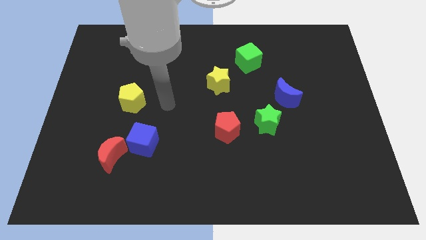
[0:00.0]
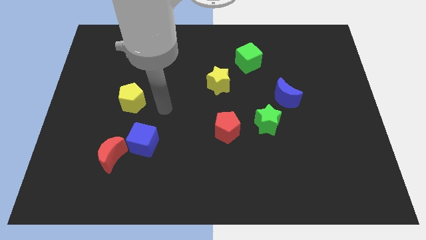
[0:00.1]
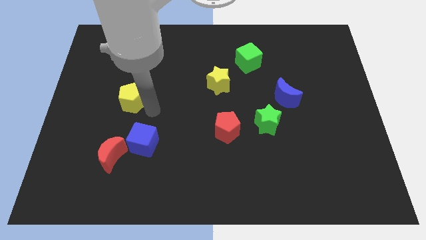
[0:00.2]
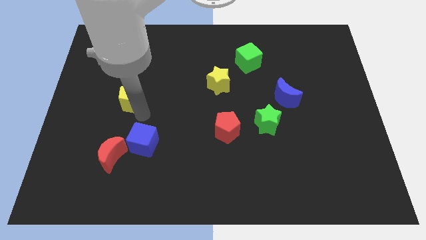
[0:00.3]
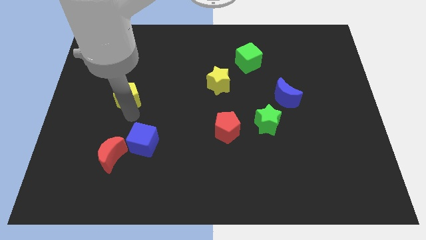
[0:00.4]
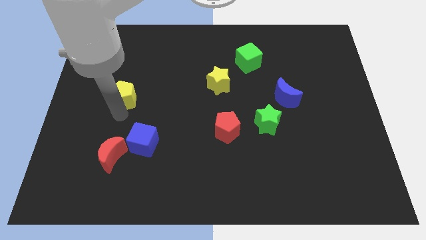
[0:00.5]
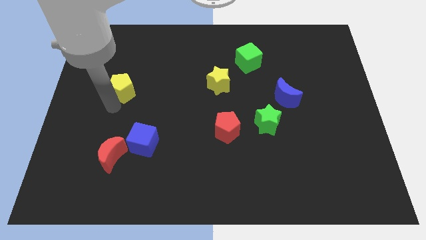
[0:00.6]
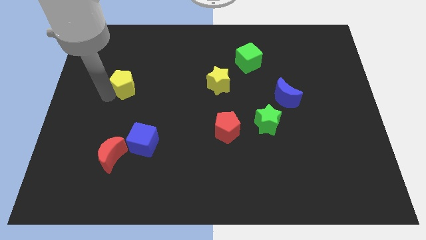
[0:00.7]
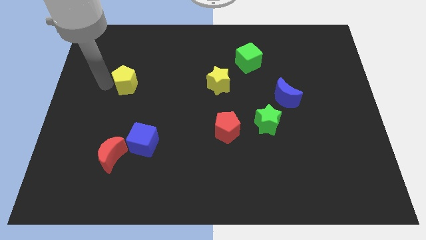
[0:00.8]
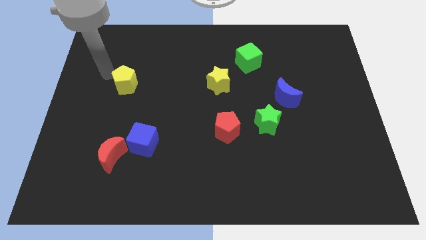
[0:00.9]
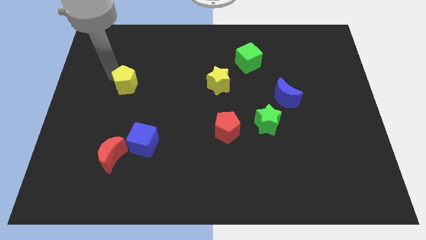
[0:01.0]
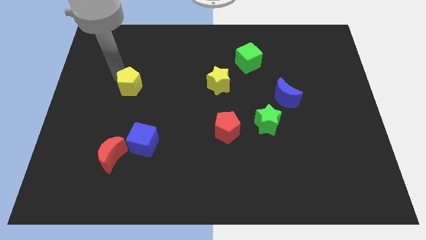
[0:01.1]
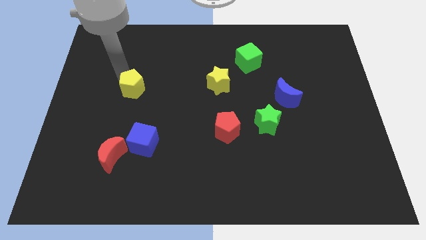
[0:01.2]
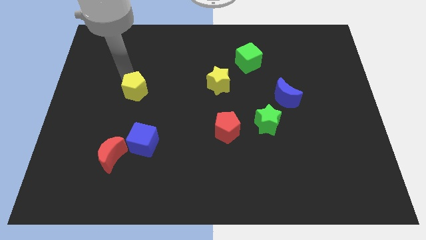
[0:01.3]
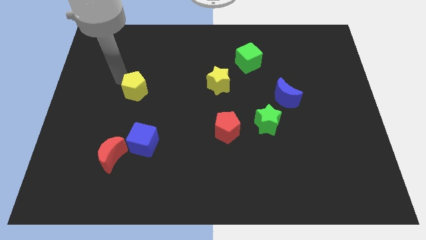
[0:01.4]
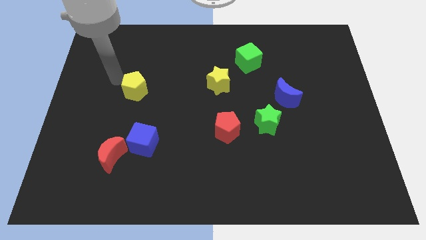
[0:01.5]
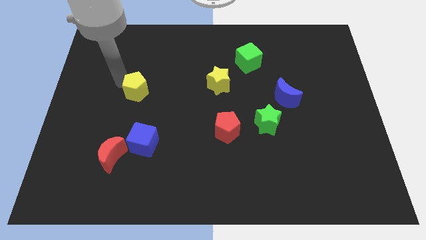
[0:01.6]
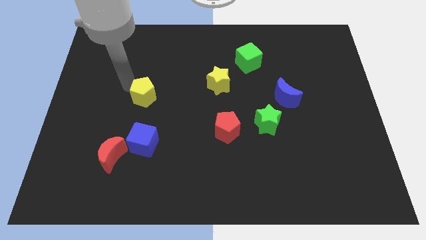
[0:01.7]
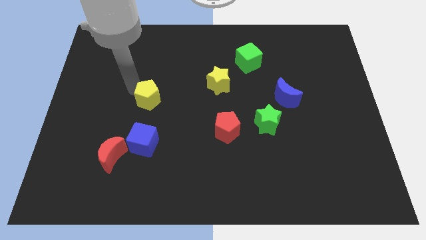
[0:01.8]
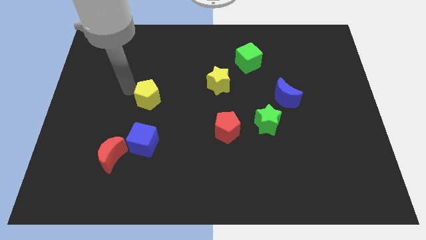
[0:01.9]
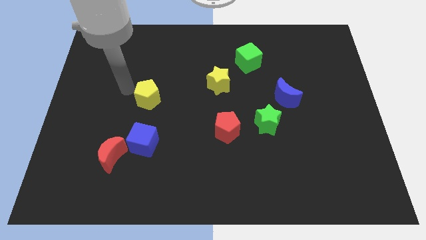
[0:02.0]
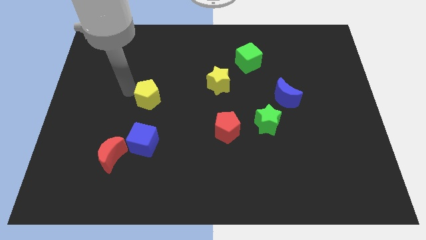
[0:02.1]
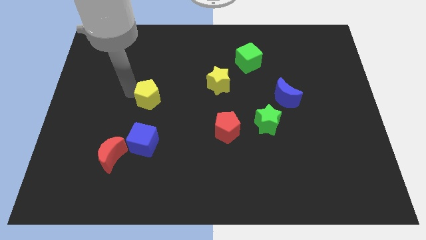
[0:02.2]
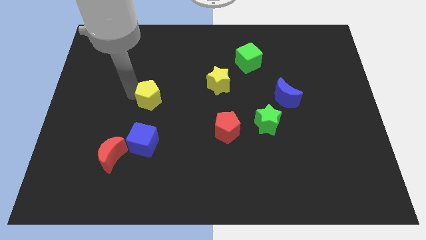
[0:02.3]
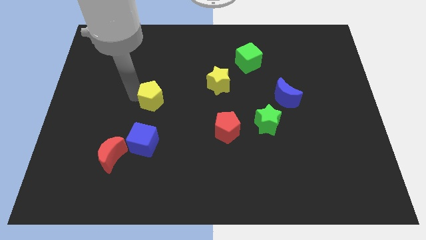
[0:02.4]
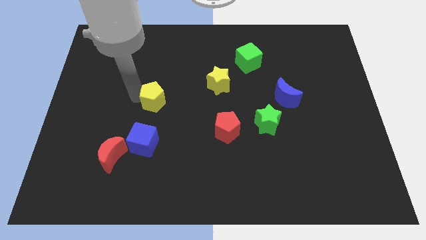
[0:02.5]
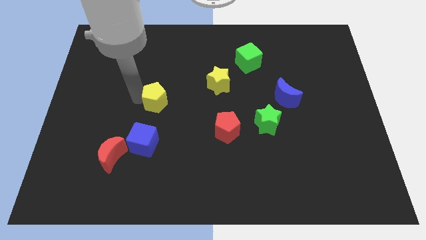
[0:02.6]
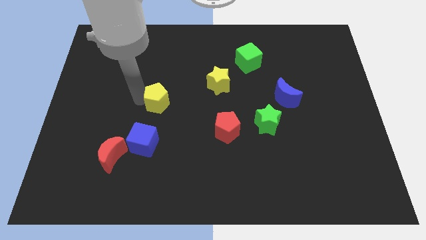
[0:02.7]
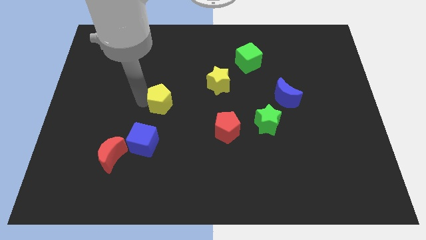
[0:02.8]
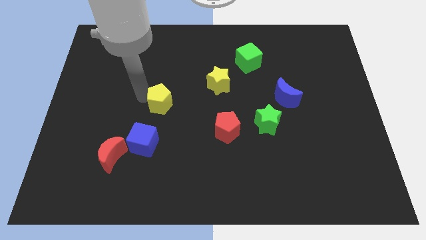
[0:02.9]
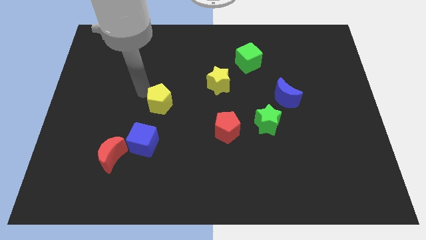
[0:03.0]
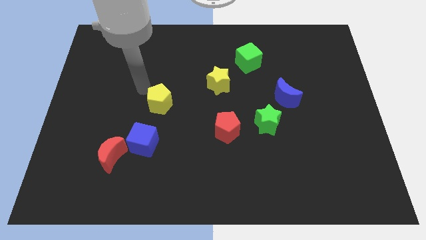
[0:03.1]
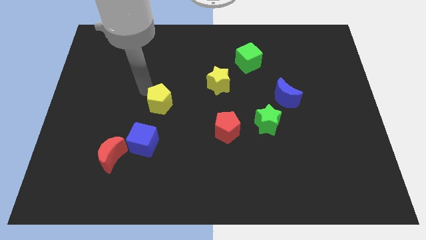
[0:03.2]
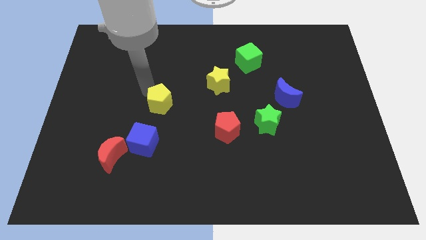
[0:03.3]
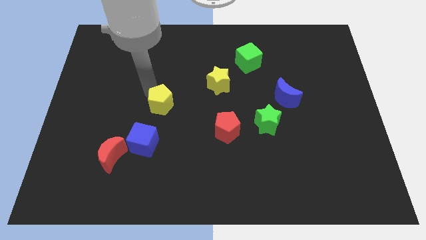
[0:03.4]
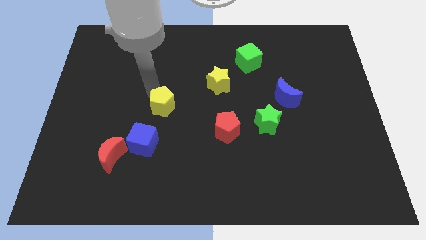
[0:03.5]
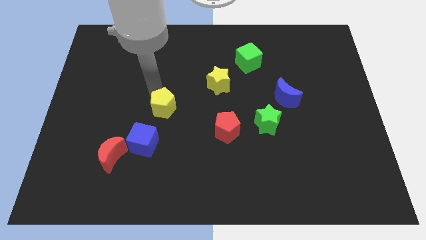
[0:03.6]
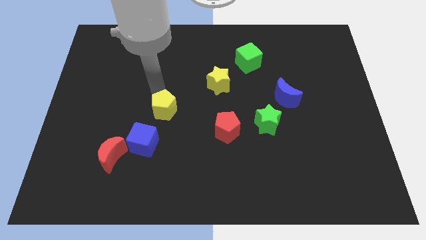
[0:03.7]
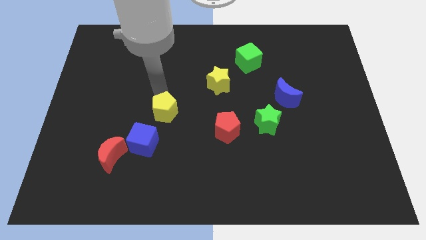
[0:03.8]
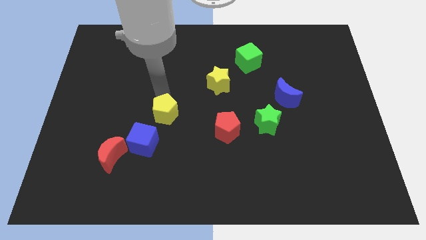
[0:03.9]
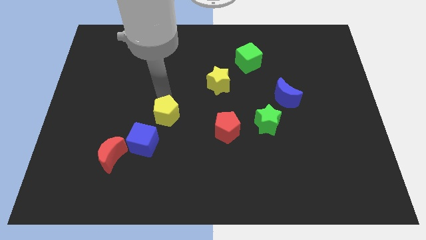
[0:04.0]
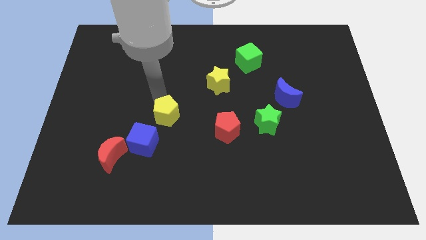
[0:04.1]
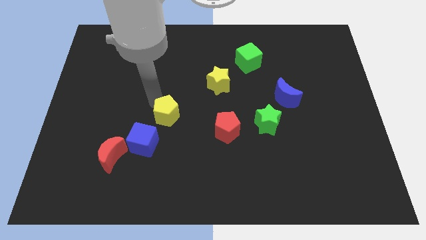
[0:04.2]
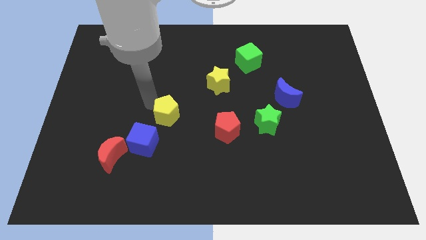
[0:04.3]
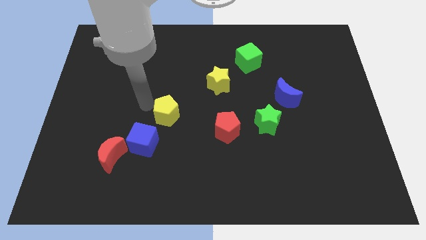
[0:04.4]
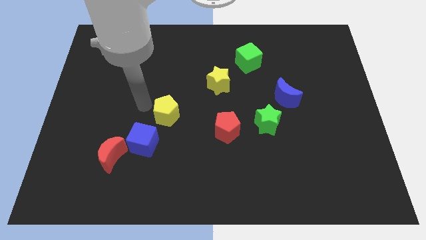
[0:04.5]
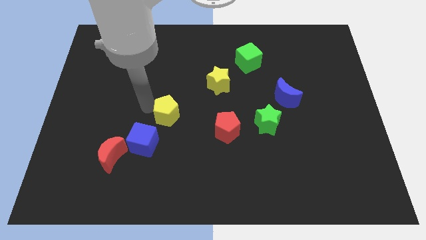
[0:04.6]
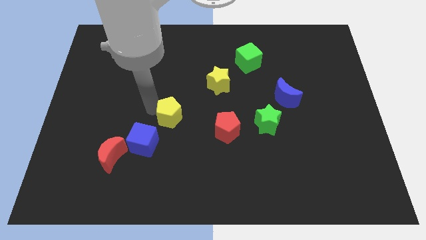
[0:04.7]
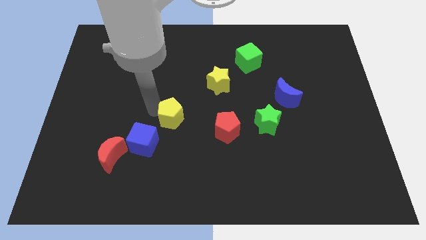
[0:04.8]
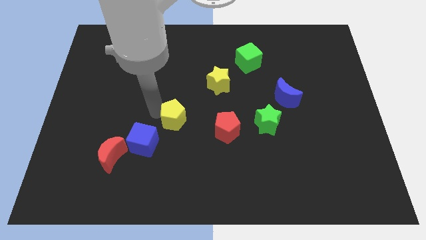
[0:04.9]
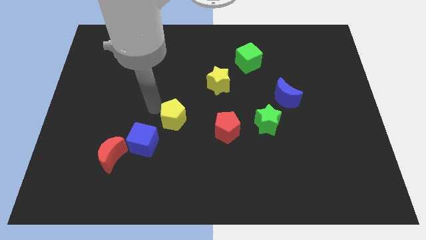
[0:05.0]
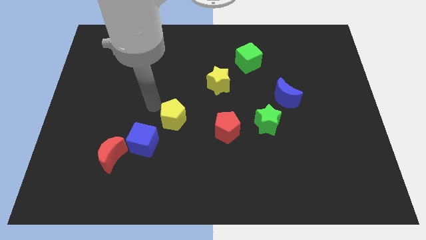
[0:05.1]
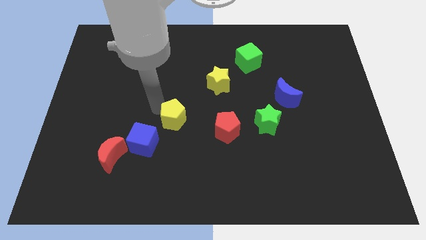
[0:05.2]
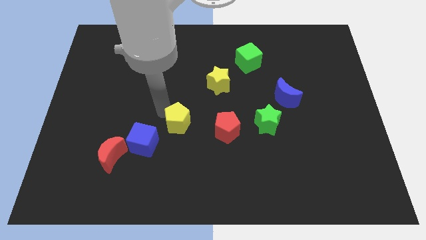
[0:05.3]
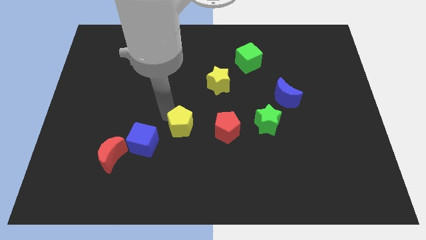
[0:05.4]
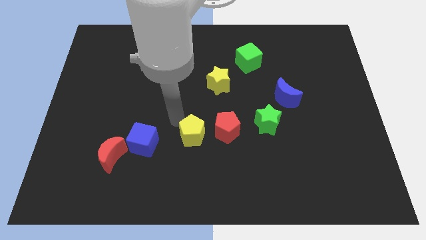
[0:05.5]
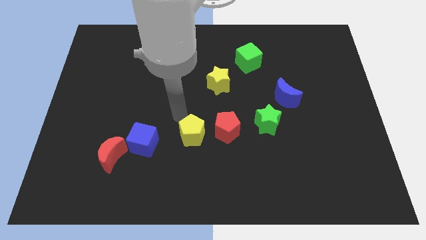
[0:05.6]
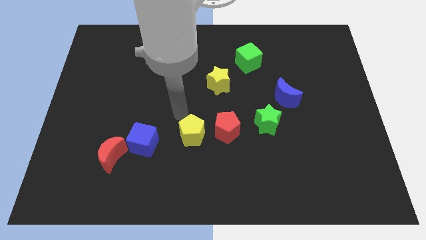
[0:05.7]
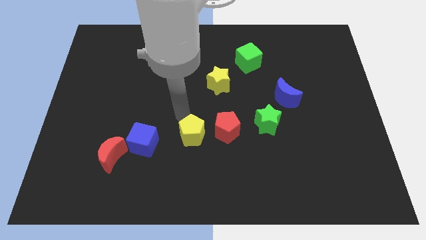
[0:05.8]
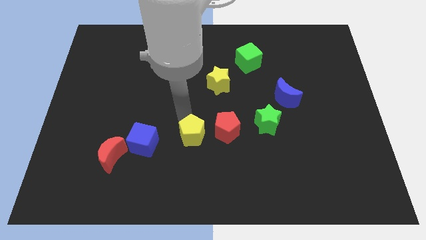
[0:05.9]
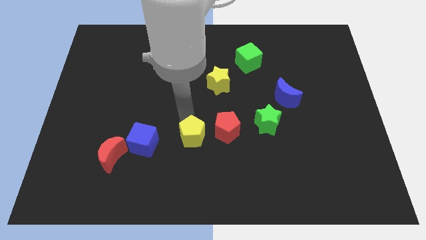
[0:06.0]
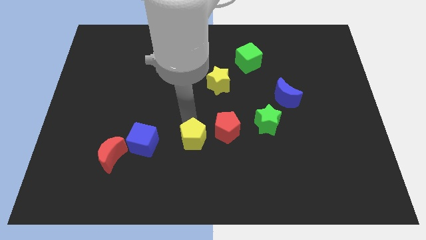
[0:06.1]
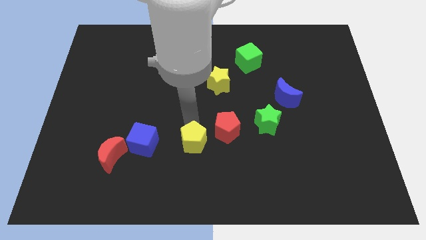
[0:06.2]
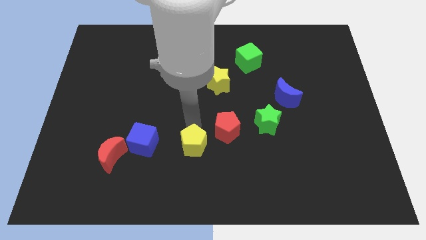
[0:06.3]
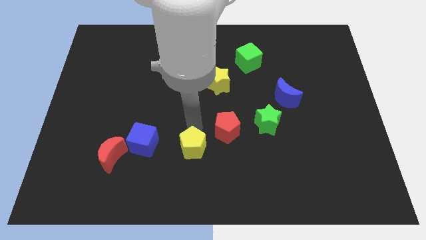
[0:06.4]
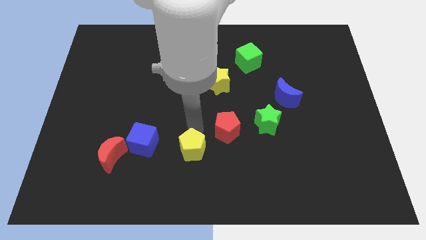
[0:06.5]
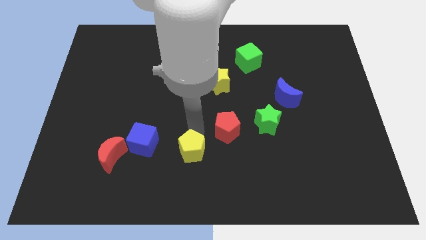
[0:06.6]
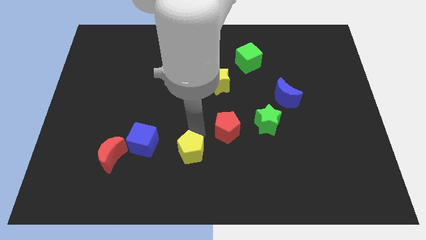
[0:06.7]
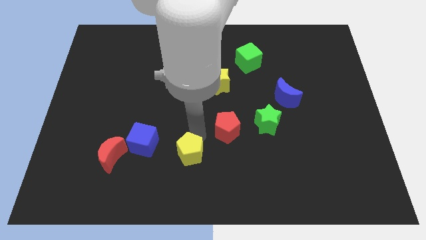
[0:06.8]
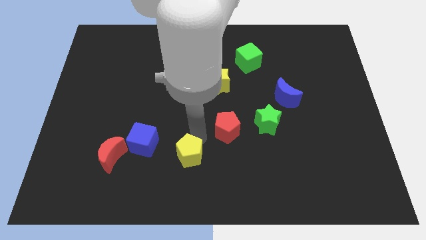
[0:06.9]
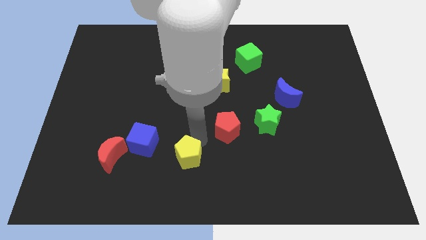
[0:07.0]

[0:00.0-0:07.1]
push the yellow pentagon to the bottom side
